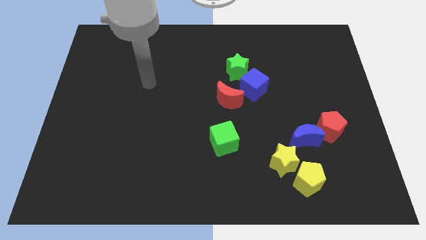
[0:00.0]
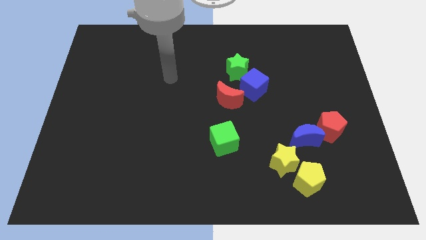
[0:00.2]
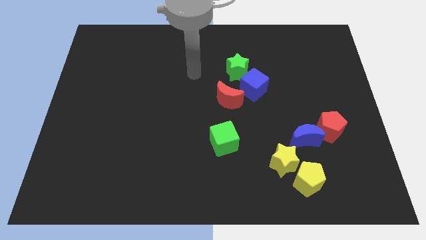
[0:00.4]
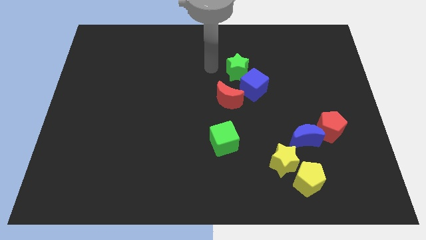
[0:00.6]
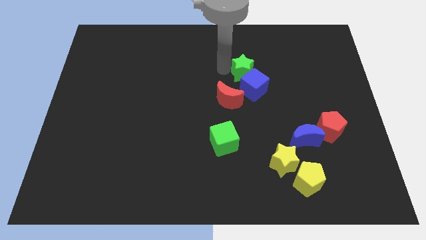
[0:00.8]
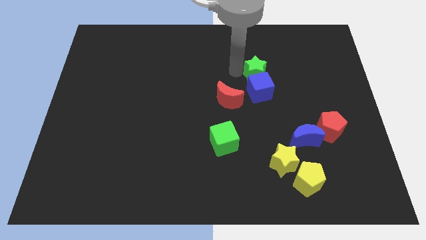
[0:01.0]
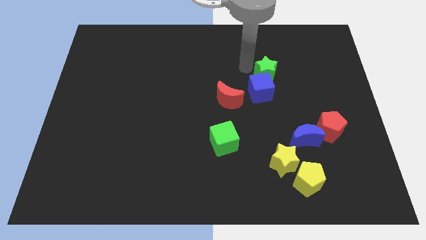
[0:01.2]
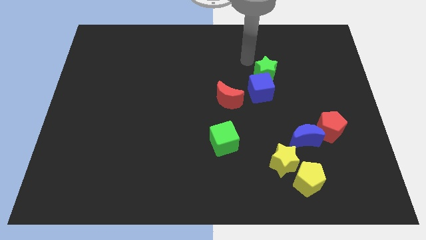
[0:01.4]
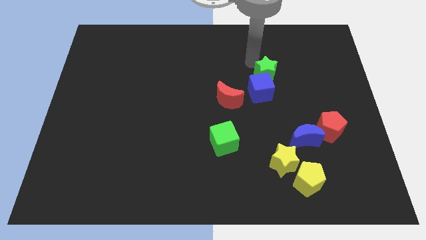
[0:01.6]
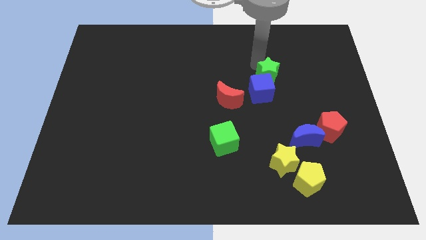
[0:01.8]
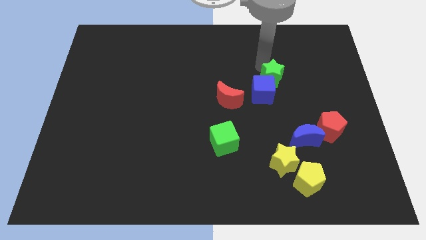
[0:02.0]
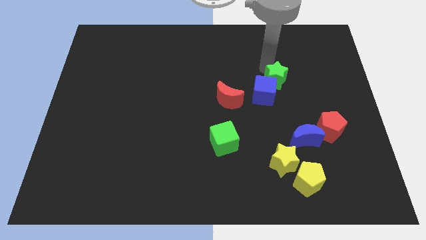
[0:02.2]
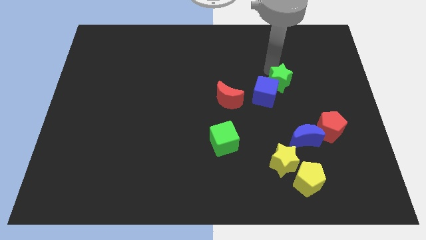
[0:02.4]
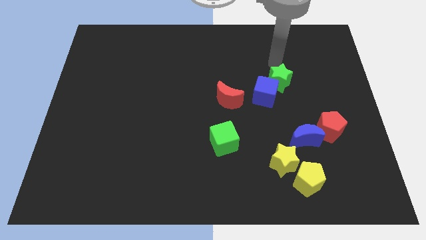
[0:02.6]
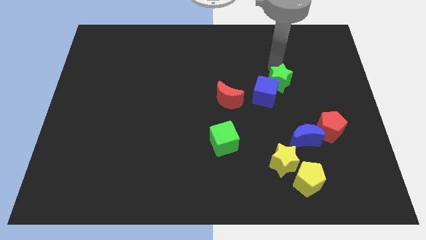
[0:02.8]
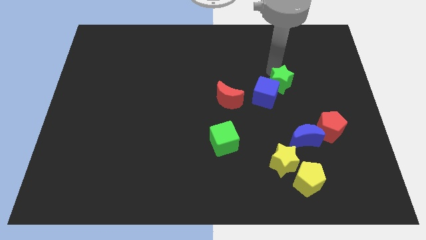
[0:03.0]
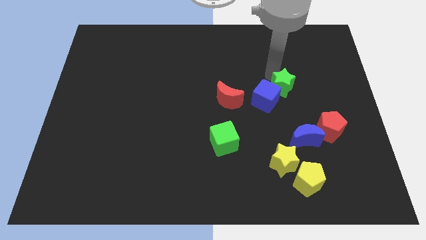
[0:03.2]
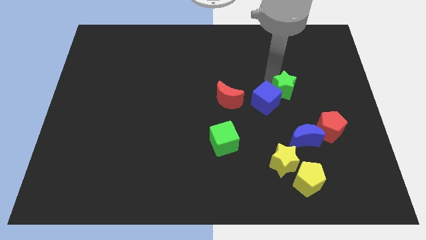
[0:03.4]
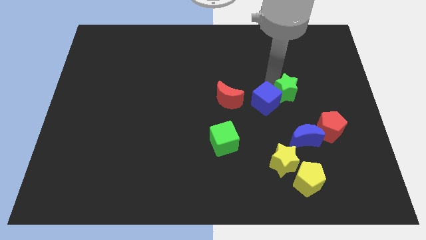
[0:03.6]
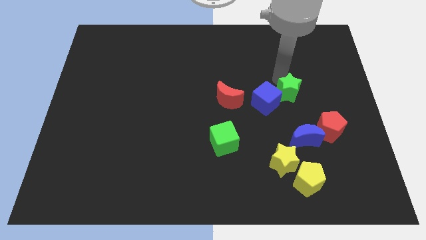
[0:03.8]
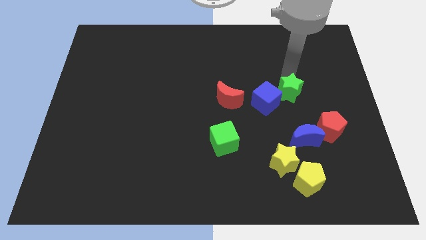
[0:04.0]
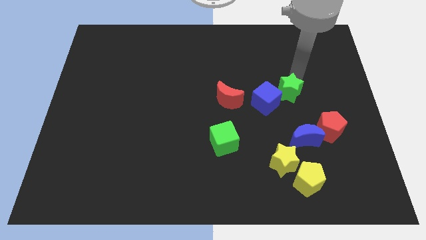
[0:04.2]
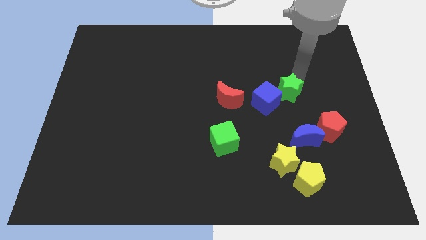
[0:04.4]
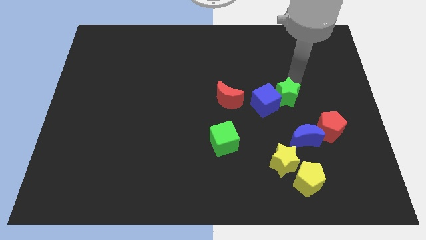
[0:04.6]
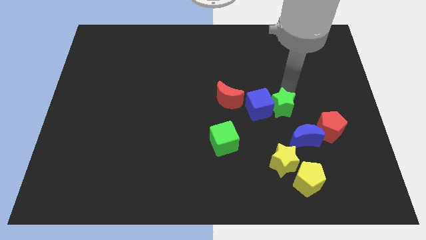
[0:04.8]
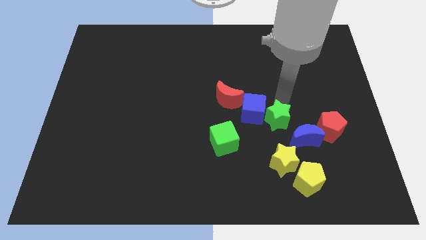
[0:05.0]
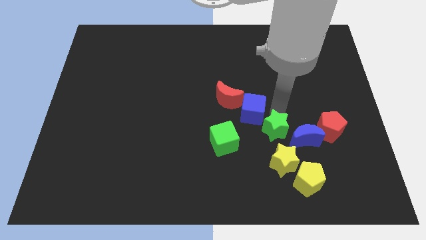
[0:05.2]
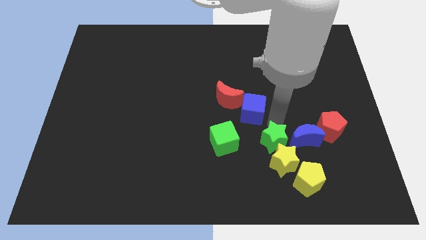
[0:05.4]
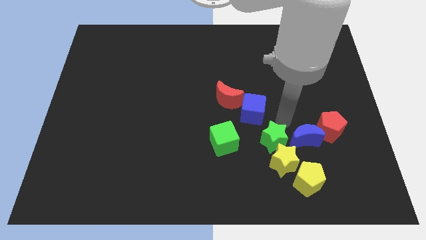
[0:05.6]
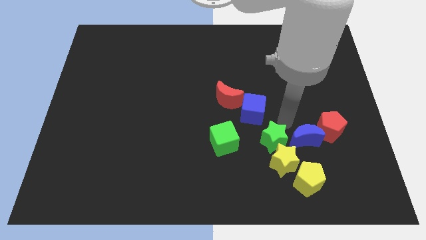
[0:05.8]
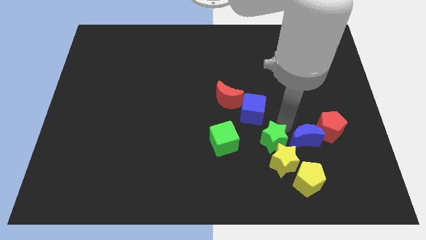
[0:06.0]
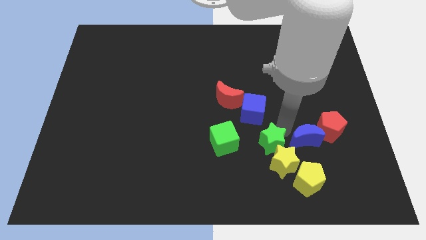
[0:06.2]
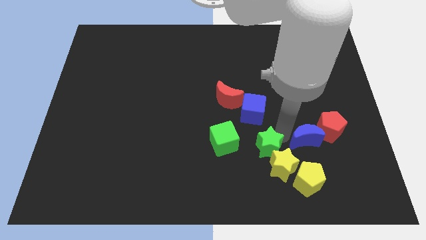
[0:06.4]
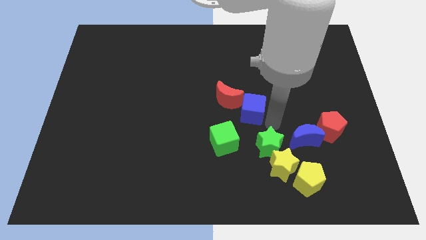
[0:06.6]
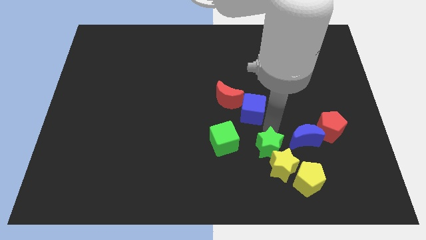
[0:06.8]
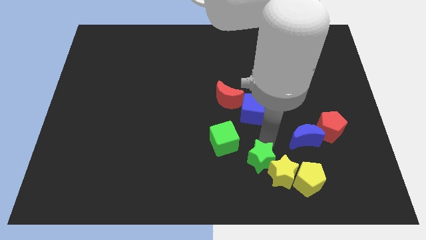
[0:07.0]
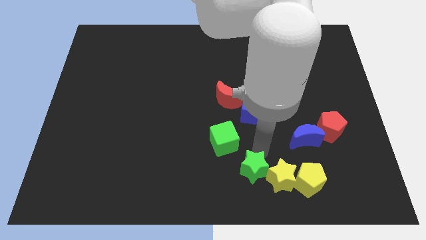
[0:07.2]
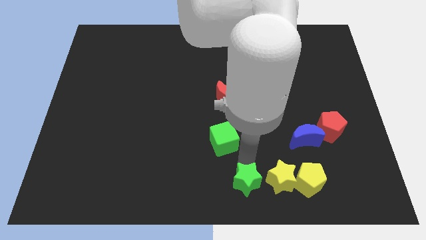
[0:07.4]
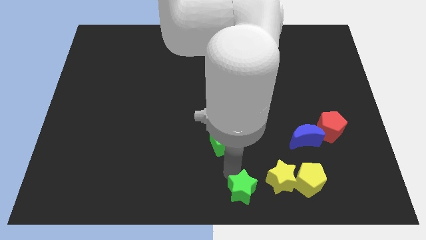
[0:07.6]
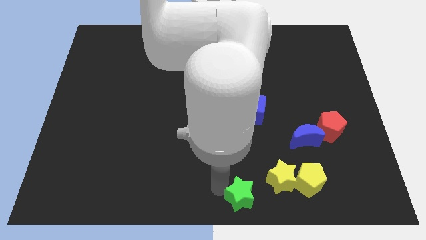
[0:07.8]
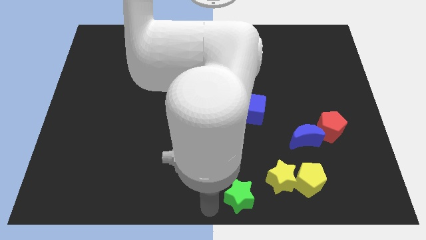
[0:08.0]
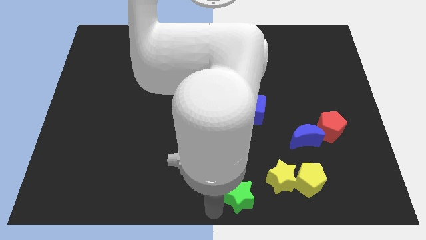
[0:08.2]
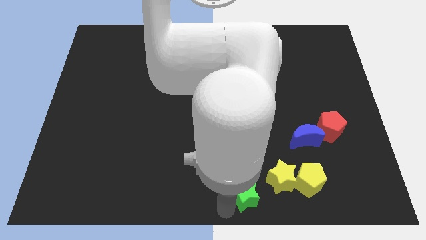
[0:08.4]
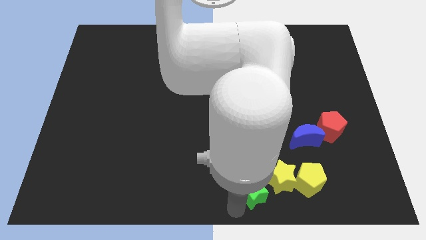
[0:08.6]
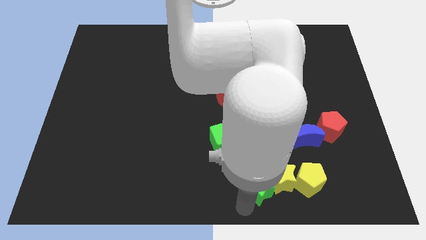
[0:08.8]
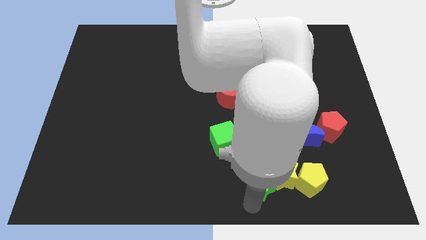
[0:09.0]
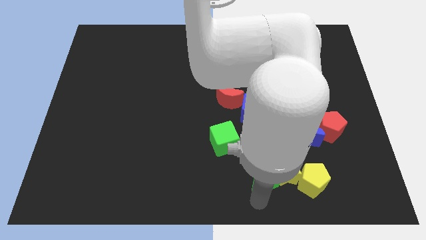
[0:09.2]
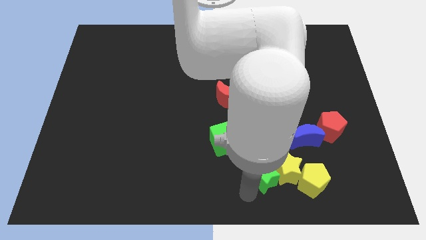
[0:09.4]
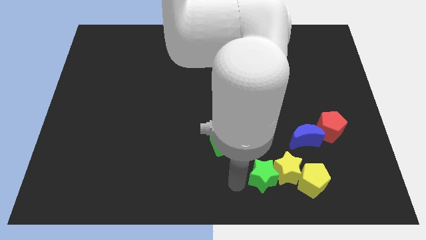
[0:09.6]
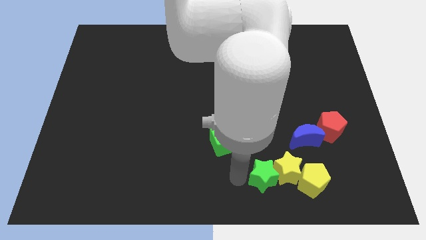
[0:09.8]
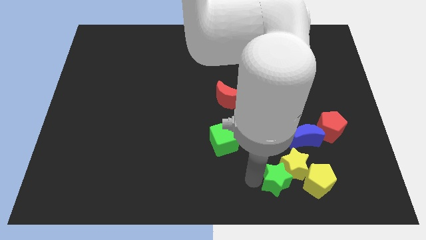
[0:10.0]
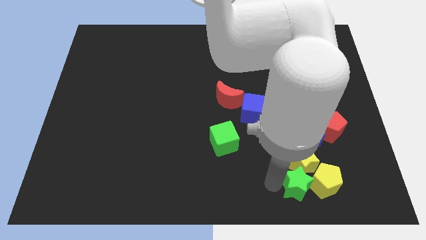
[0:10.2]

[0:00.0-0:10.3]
move the green star to the yellow pentagon

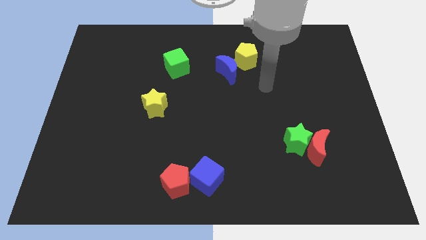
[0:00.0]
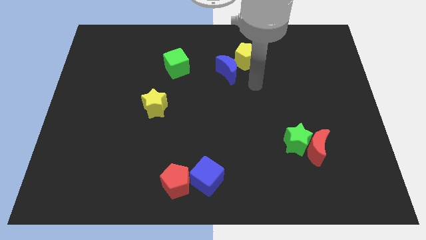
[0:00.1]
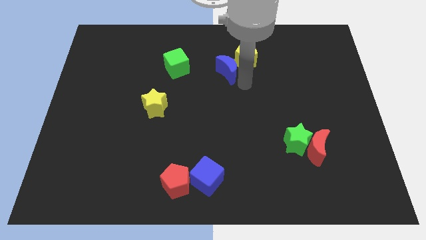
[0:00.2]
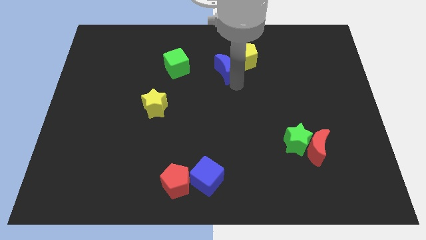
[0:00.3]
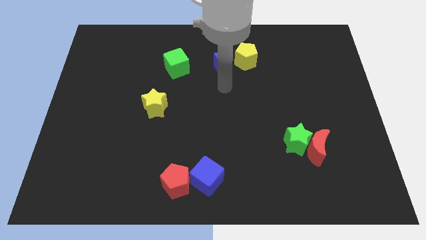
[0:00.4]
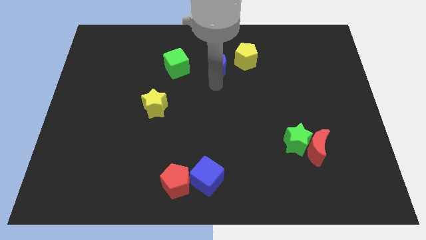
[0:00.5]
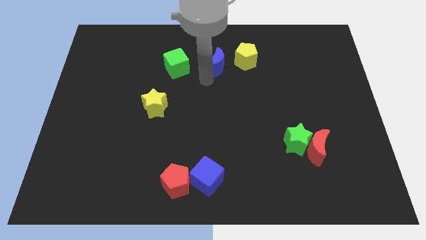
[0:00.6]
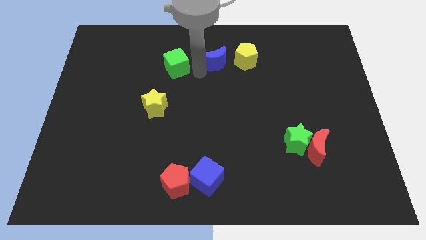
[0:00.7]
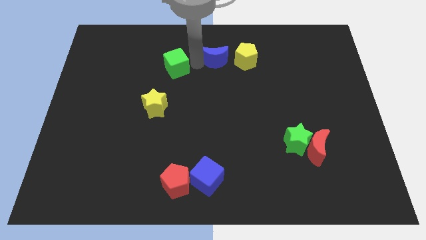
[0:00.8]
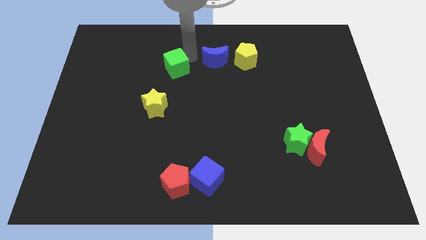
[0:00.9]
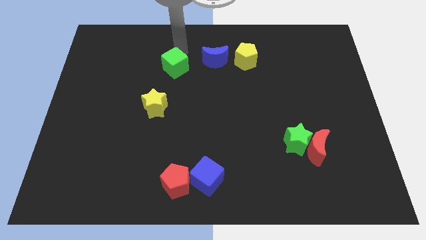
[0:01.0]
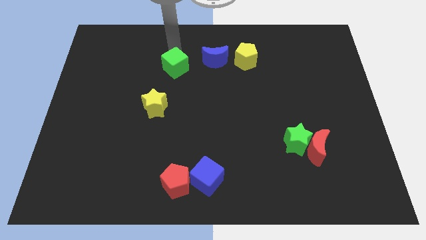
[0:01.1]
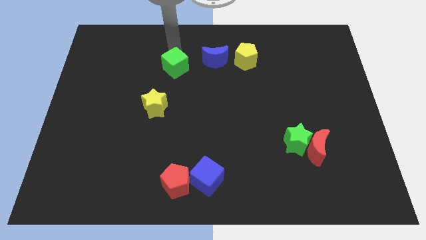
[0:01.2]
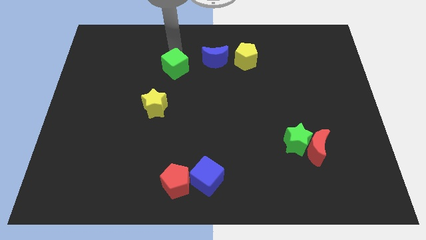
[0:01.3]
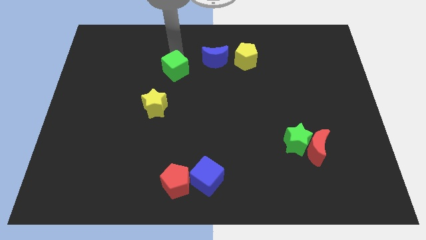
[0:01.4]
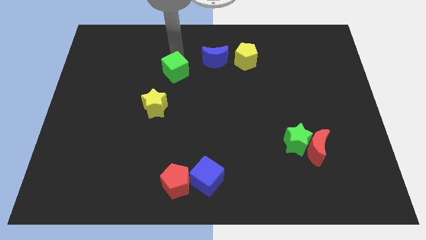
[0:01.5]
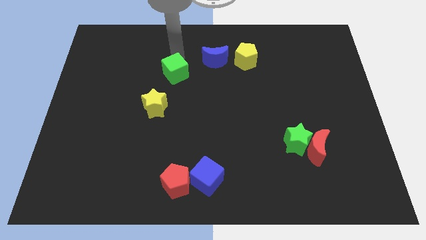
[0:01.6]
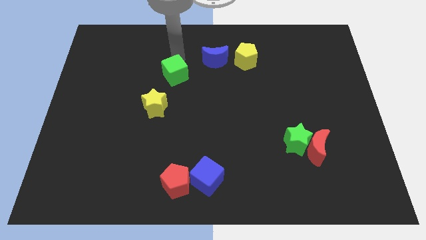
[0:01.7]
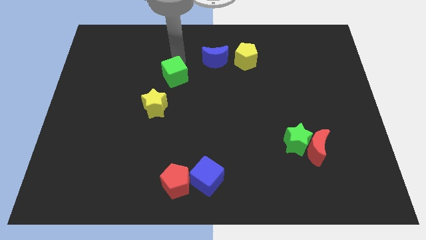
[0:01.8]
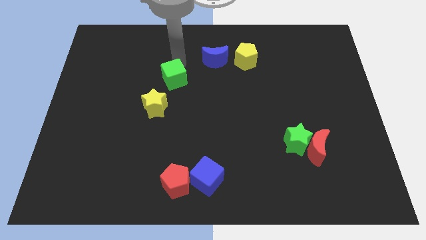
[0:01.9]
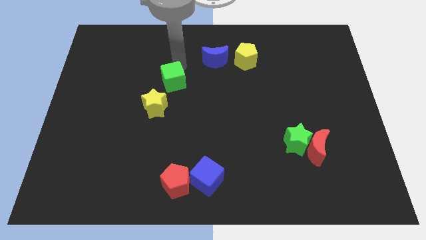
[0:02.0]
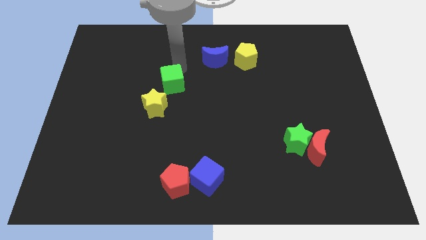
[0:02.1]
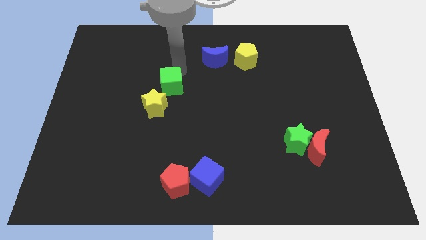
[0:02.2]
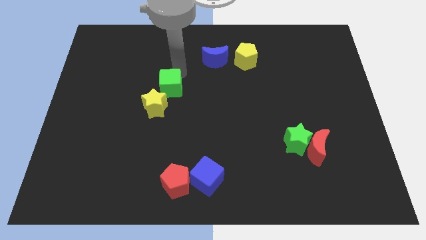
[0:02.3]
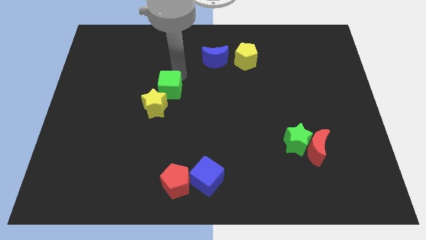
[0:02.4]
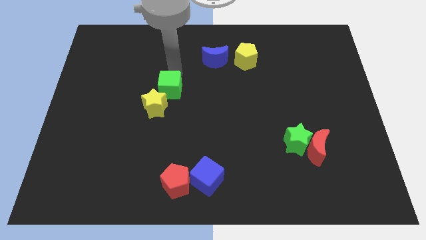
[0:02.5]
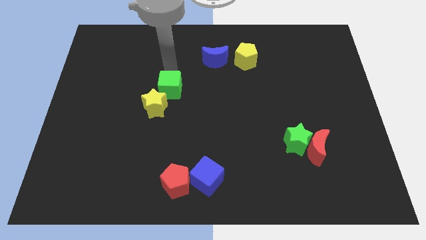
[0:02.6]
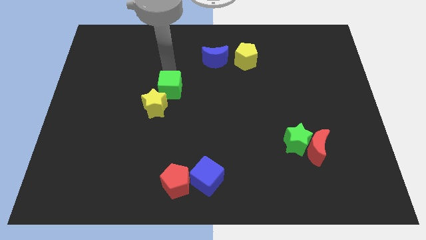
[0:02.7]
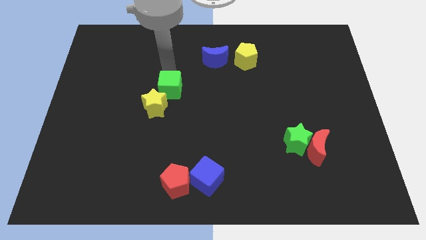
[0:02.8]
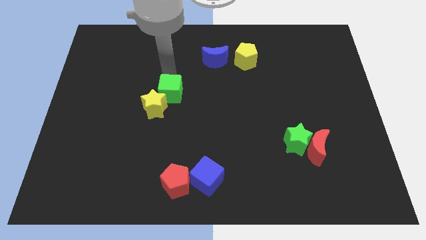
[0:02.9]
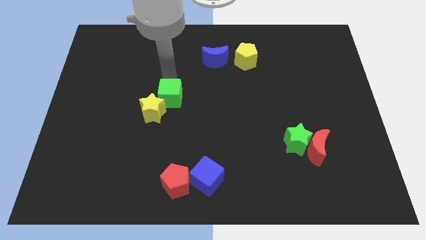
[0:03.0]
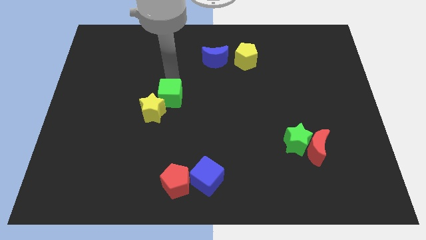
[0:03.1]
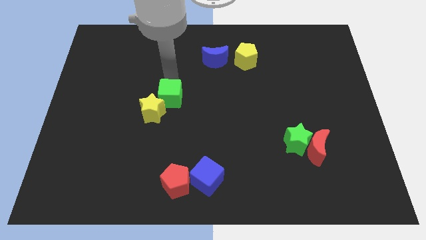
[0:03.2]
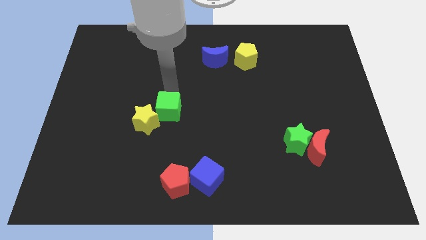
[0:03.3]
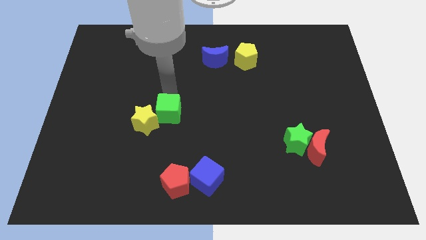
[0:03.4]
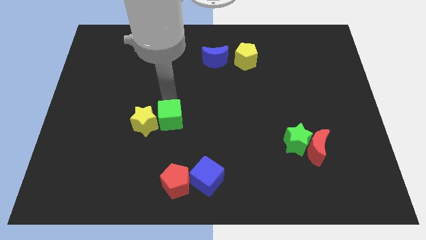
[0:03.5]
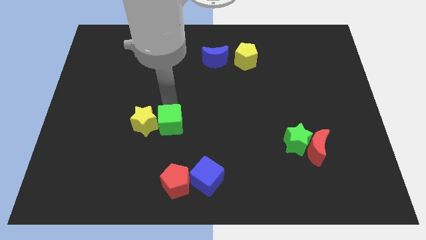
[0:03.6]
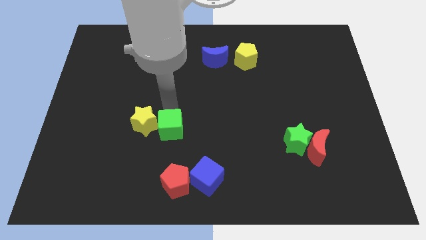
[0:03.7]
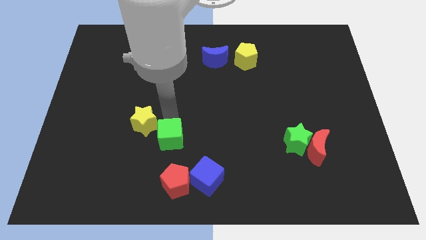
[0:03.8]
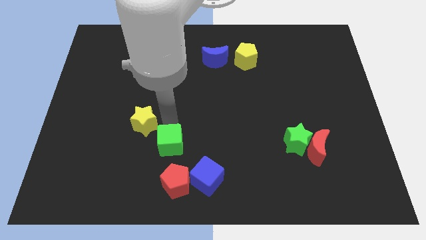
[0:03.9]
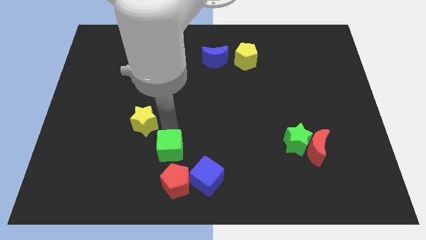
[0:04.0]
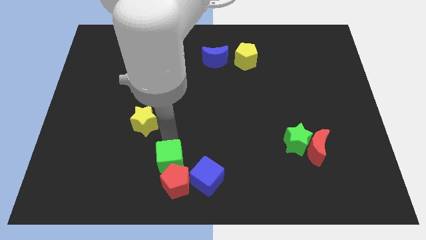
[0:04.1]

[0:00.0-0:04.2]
push the green cube next to the red pentagon
